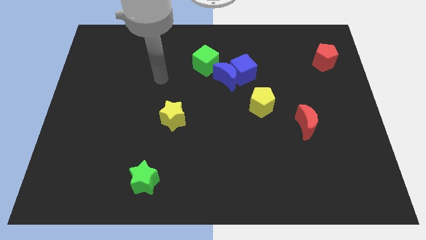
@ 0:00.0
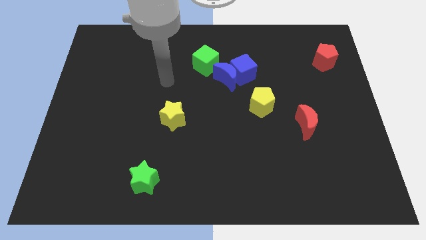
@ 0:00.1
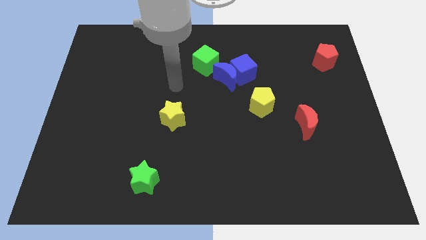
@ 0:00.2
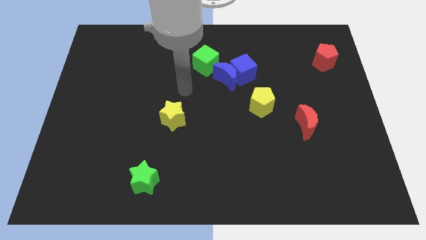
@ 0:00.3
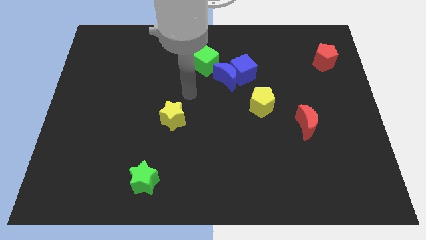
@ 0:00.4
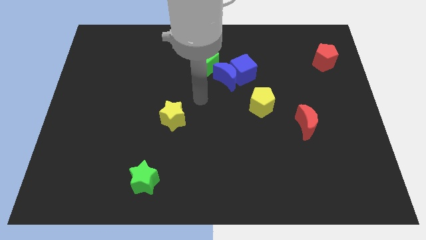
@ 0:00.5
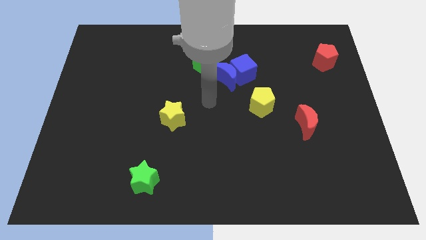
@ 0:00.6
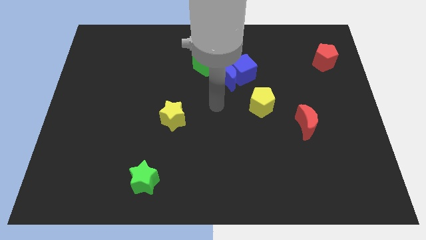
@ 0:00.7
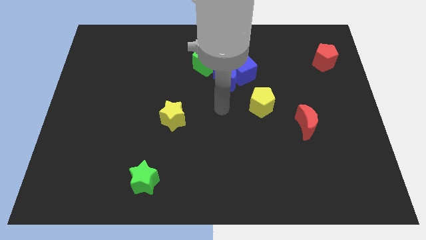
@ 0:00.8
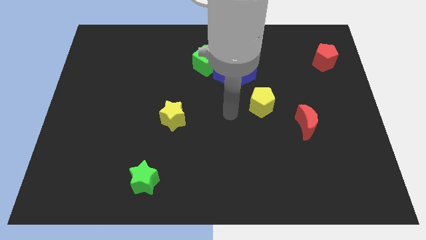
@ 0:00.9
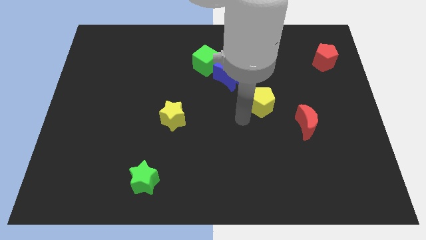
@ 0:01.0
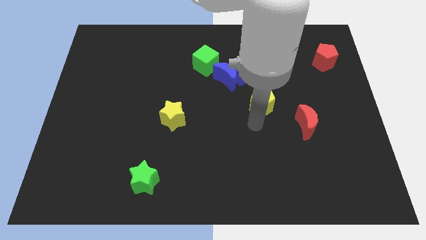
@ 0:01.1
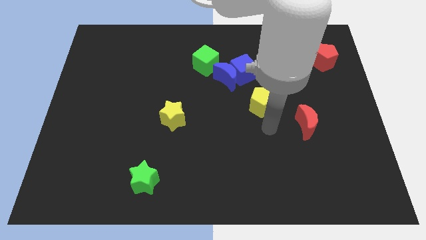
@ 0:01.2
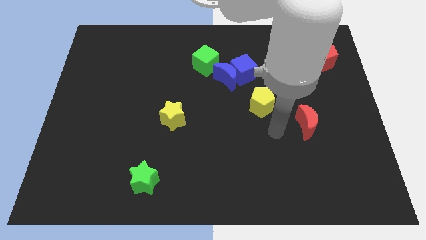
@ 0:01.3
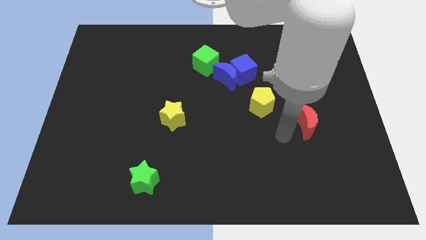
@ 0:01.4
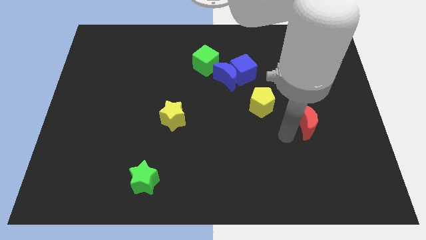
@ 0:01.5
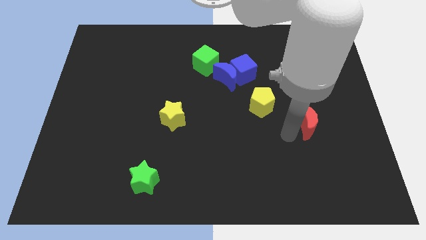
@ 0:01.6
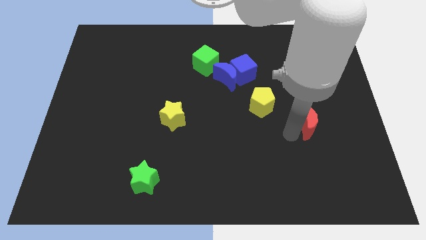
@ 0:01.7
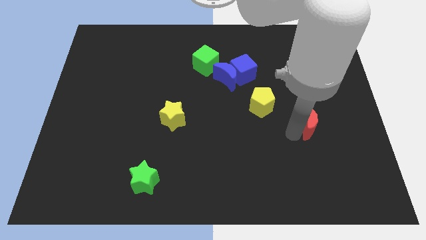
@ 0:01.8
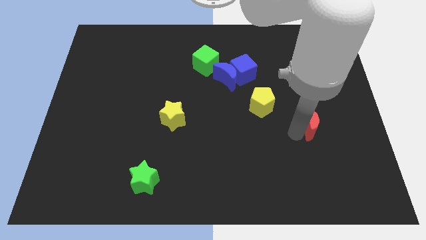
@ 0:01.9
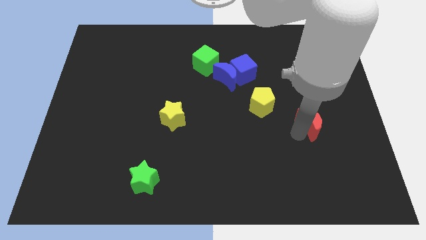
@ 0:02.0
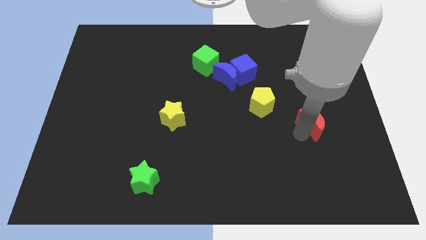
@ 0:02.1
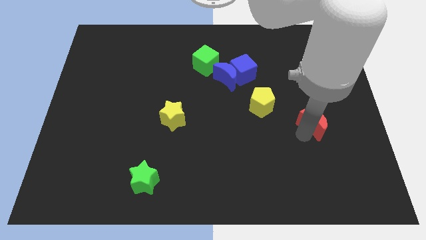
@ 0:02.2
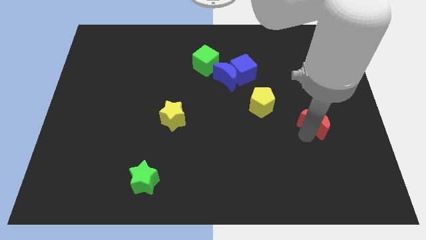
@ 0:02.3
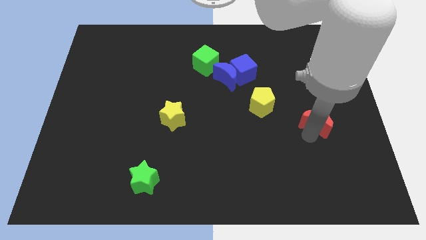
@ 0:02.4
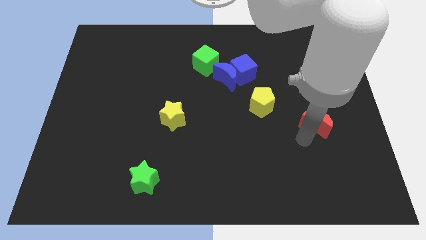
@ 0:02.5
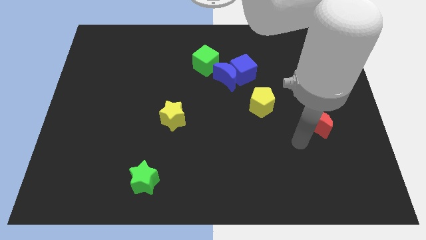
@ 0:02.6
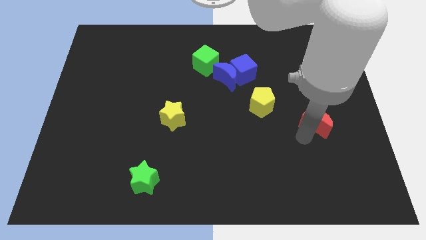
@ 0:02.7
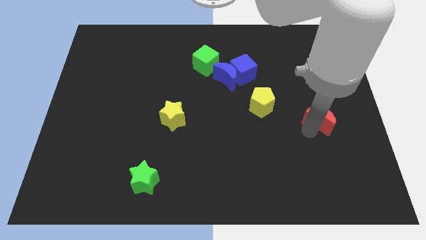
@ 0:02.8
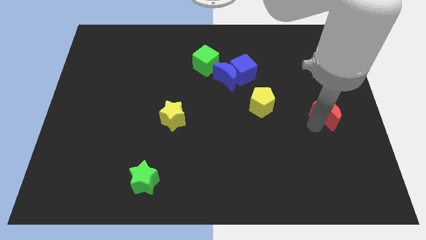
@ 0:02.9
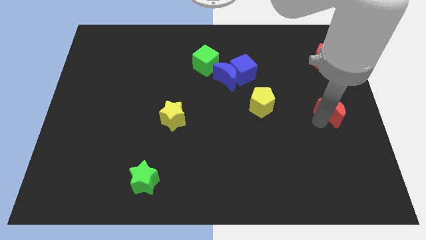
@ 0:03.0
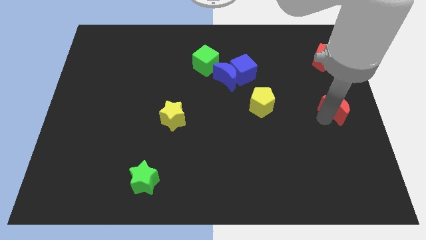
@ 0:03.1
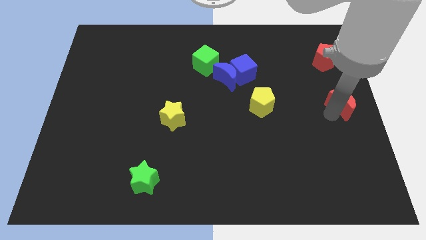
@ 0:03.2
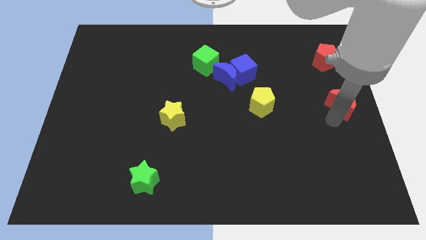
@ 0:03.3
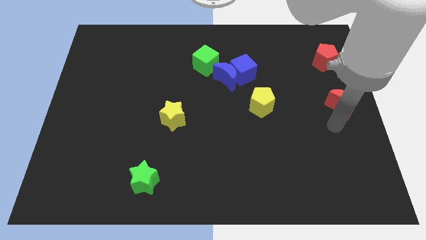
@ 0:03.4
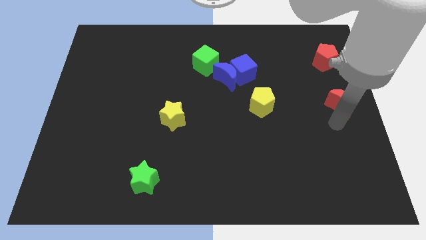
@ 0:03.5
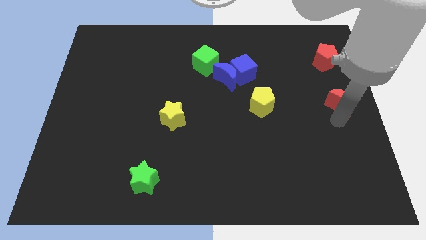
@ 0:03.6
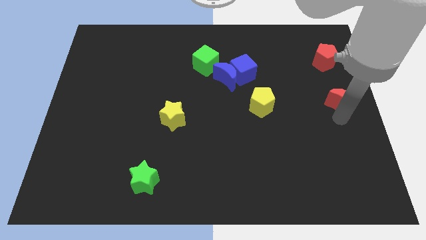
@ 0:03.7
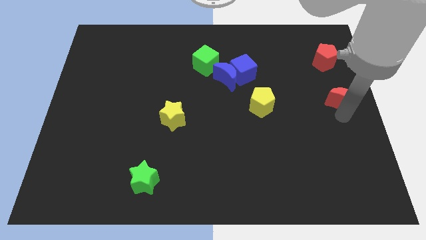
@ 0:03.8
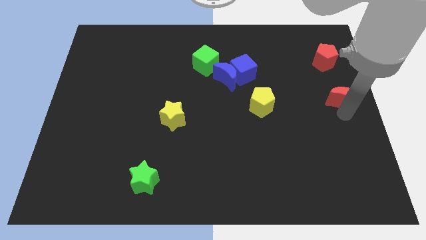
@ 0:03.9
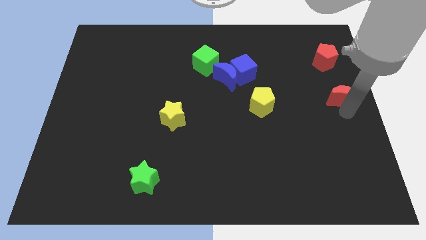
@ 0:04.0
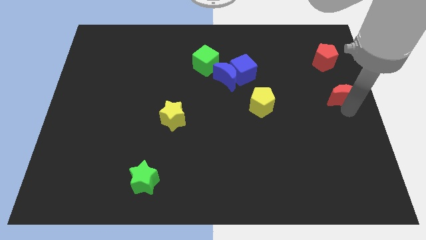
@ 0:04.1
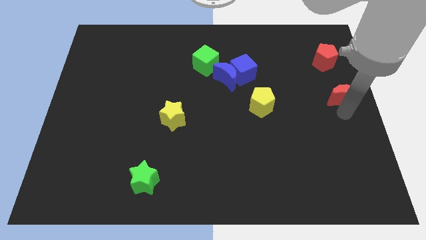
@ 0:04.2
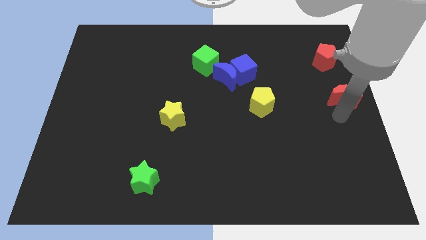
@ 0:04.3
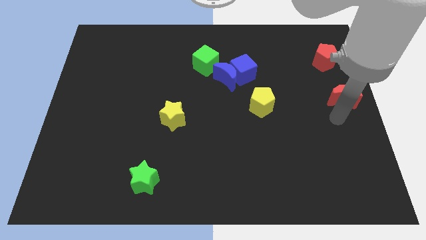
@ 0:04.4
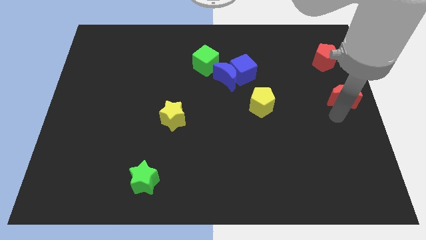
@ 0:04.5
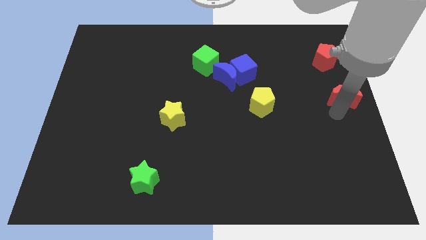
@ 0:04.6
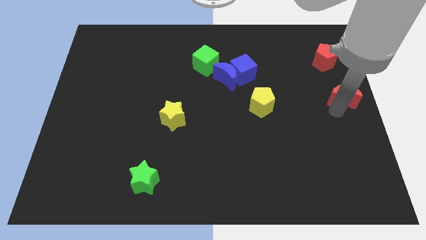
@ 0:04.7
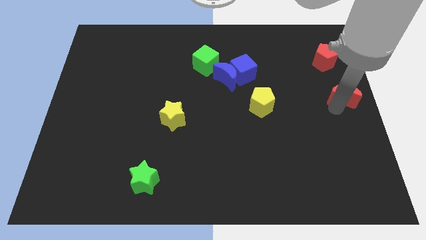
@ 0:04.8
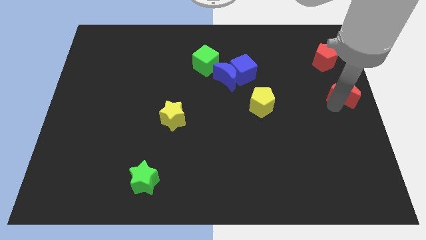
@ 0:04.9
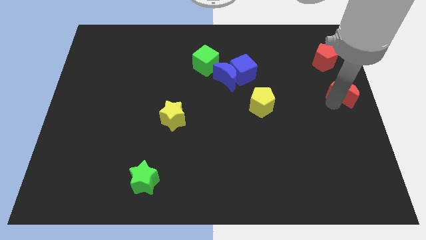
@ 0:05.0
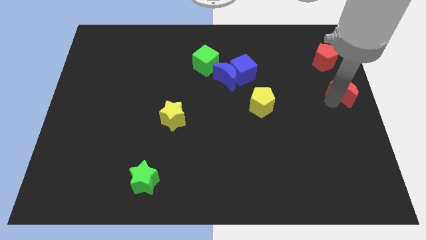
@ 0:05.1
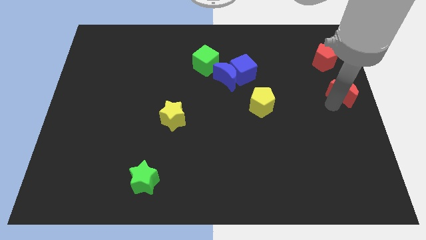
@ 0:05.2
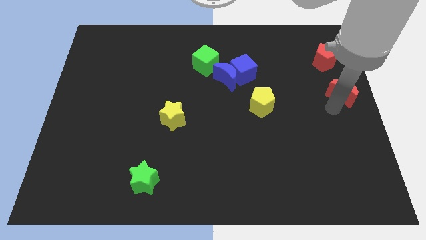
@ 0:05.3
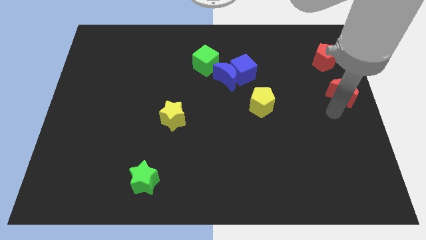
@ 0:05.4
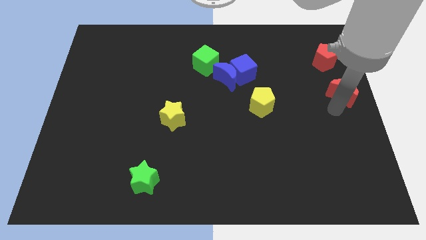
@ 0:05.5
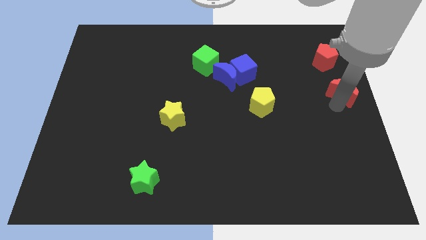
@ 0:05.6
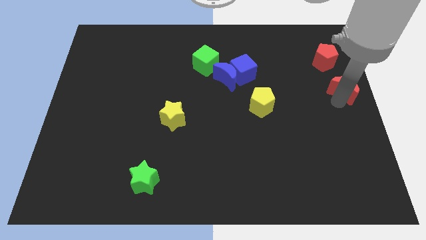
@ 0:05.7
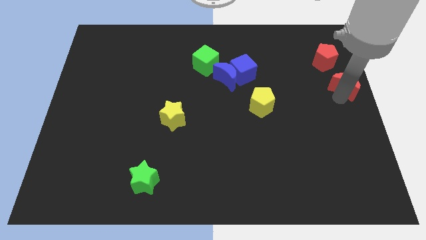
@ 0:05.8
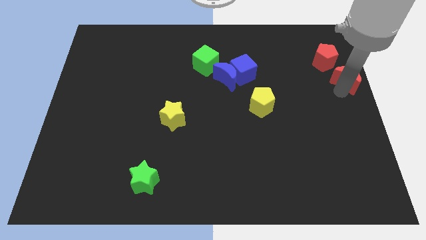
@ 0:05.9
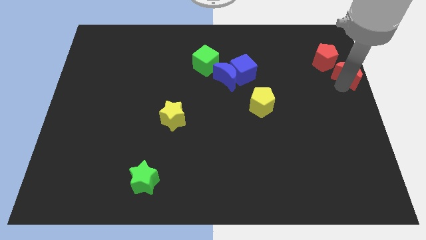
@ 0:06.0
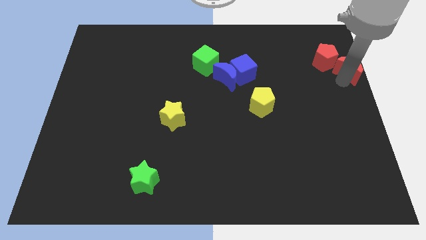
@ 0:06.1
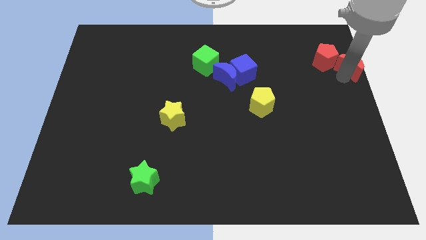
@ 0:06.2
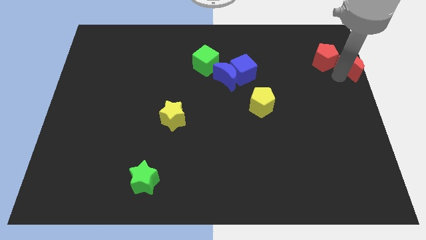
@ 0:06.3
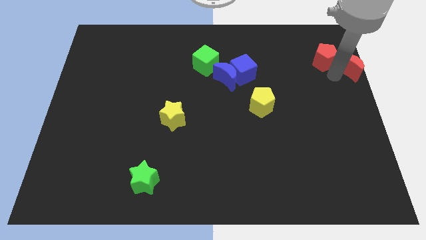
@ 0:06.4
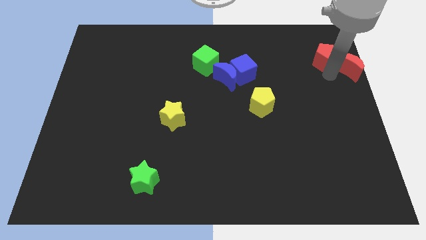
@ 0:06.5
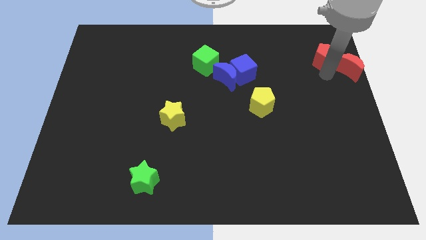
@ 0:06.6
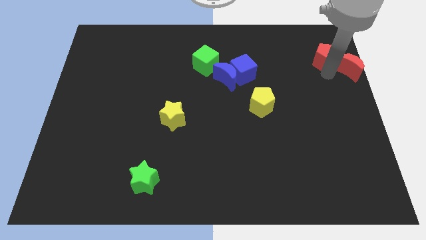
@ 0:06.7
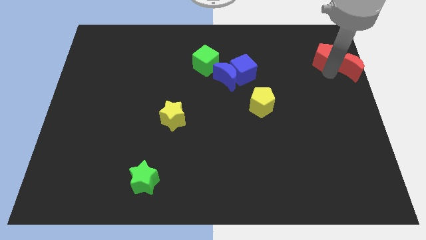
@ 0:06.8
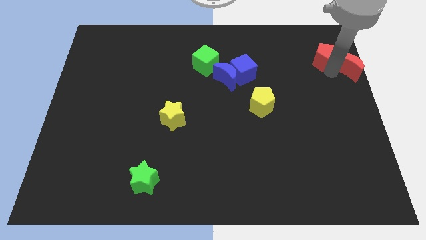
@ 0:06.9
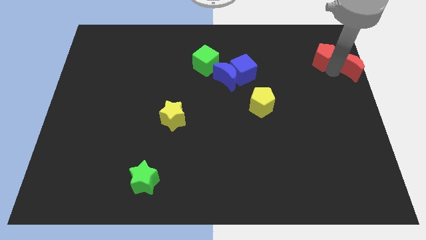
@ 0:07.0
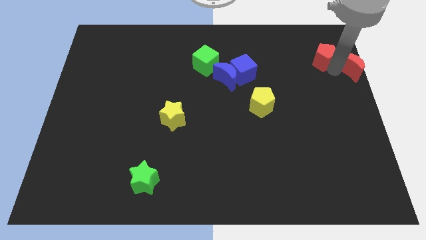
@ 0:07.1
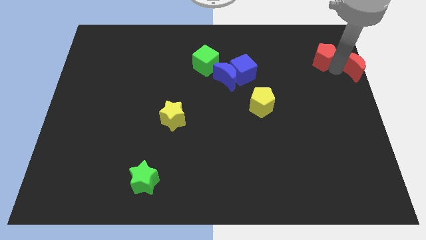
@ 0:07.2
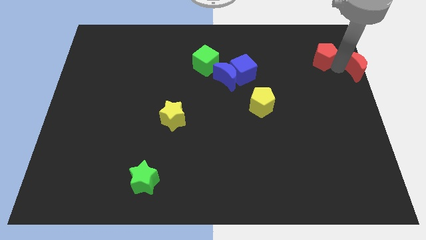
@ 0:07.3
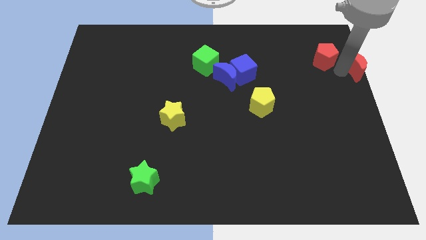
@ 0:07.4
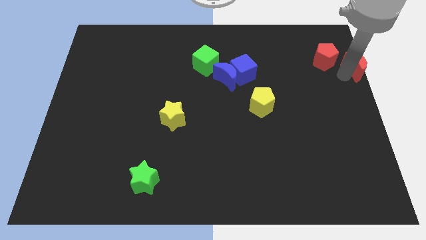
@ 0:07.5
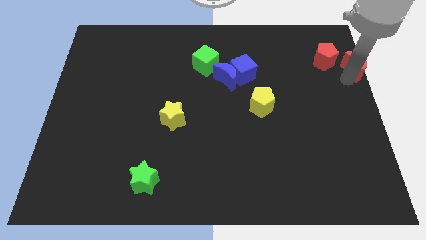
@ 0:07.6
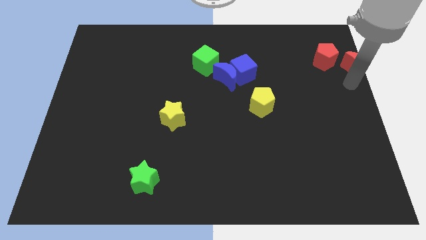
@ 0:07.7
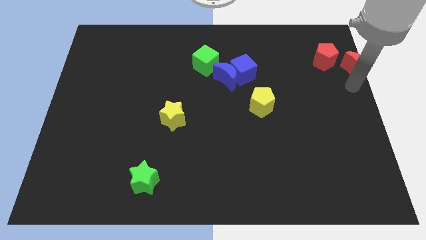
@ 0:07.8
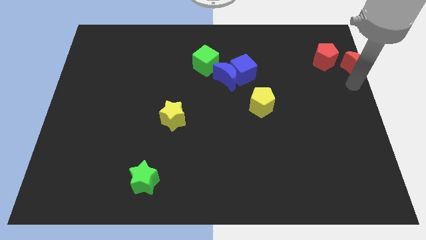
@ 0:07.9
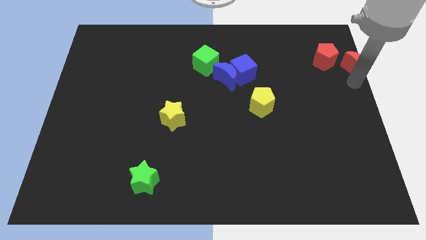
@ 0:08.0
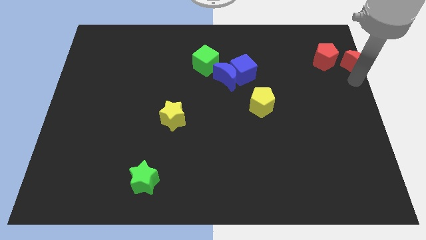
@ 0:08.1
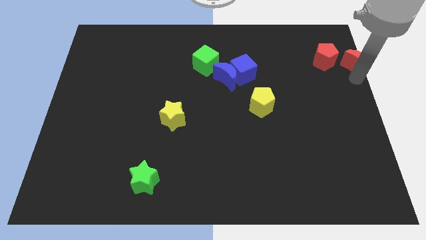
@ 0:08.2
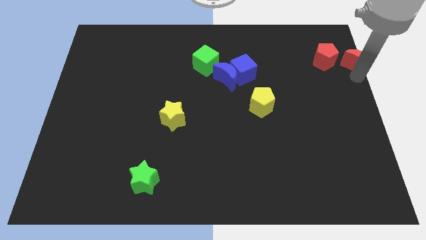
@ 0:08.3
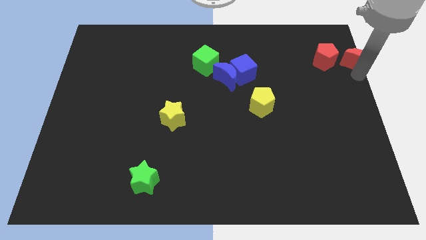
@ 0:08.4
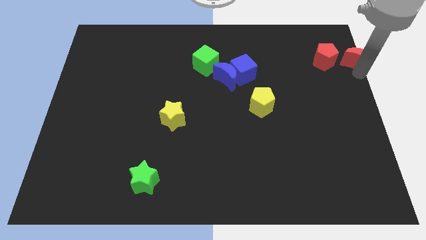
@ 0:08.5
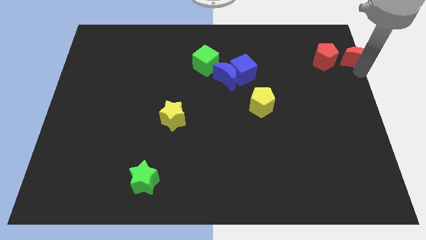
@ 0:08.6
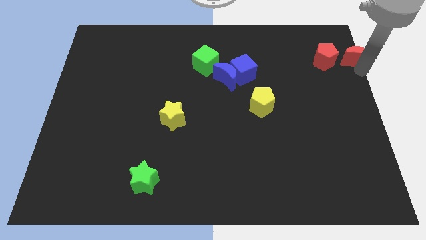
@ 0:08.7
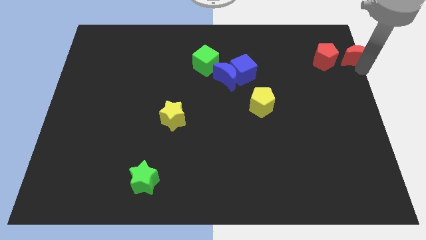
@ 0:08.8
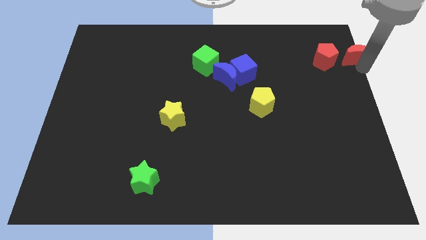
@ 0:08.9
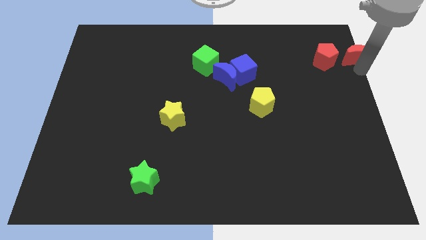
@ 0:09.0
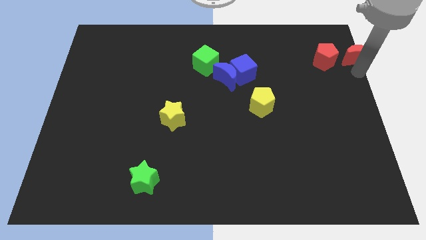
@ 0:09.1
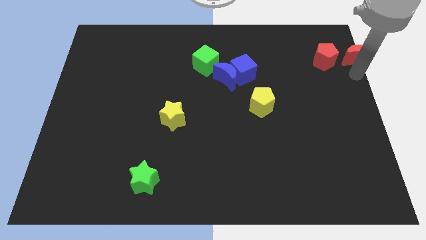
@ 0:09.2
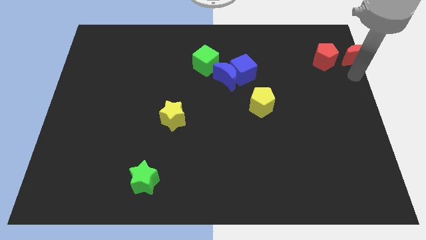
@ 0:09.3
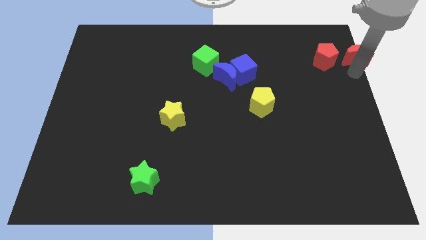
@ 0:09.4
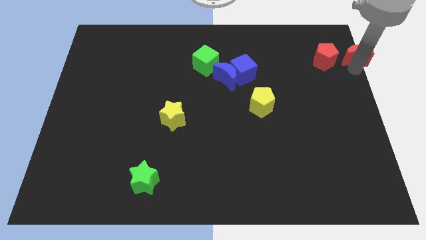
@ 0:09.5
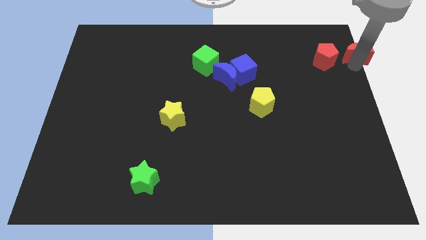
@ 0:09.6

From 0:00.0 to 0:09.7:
move the red moon to the top right of the board
